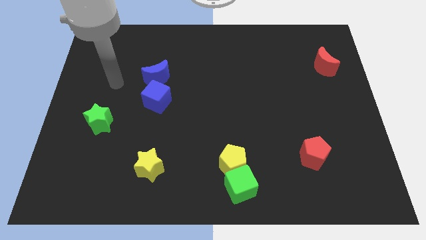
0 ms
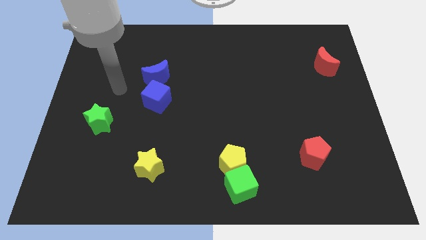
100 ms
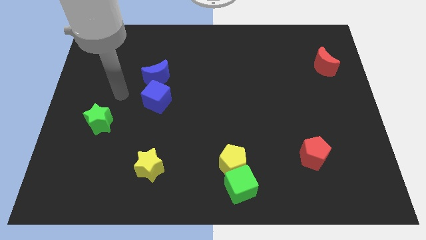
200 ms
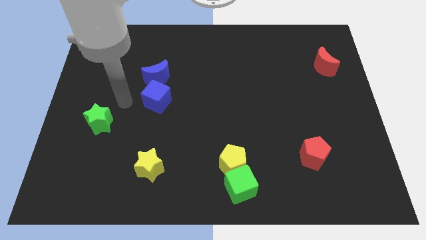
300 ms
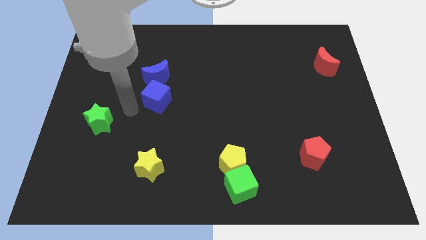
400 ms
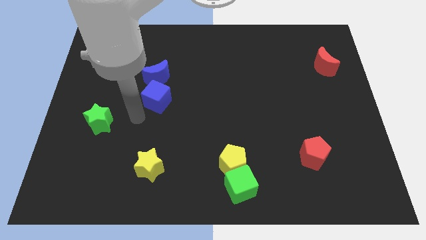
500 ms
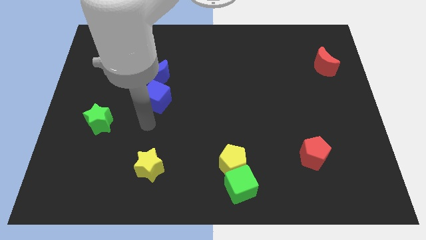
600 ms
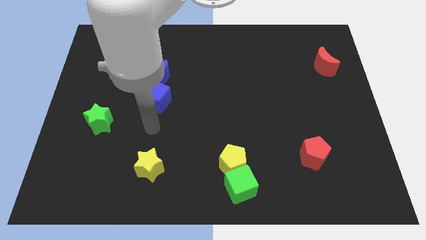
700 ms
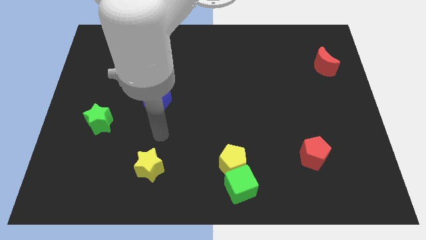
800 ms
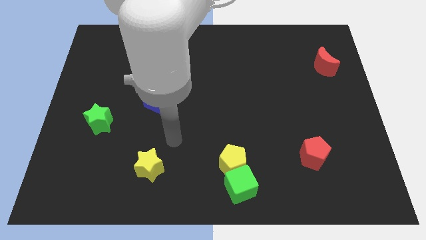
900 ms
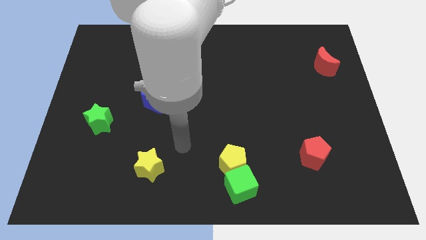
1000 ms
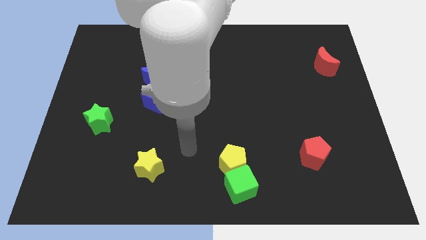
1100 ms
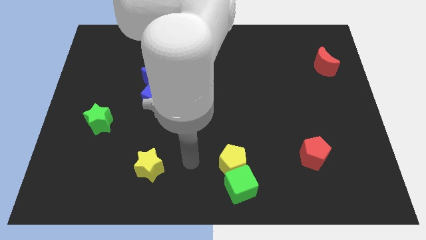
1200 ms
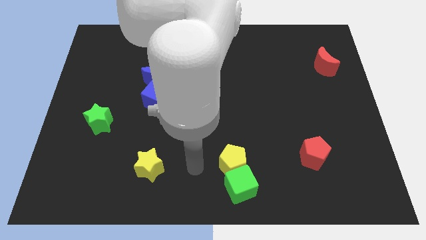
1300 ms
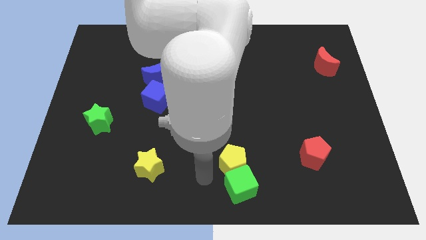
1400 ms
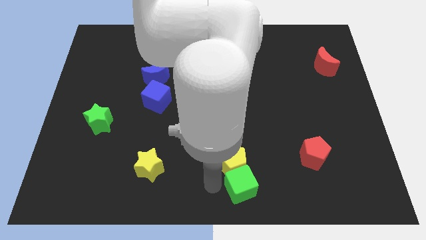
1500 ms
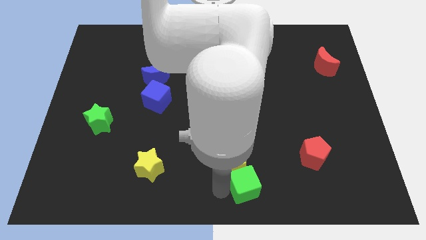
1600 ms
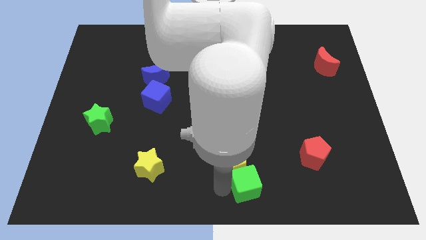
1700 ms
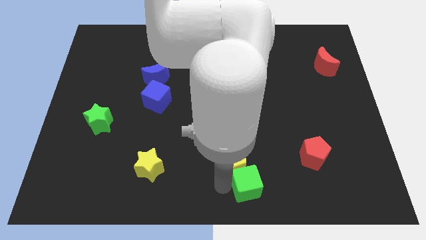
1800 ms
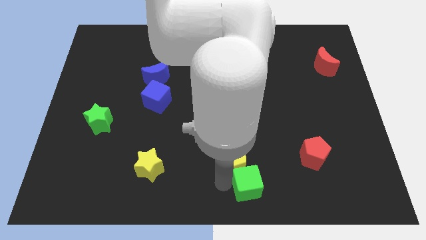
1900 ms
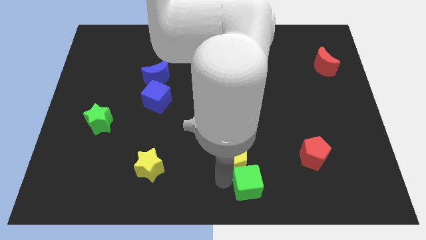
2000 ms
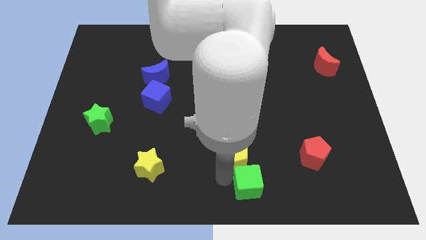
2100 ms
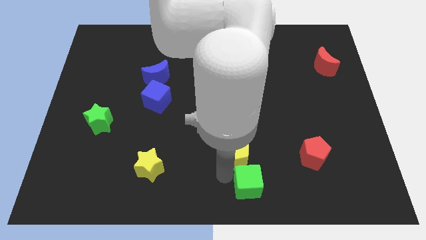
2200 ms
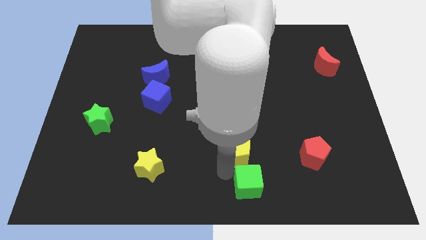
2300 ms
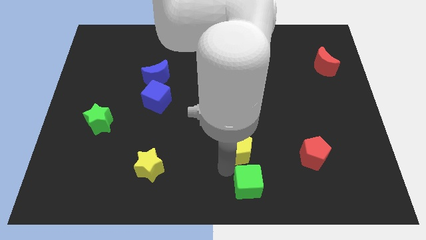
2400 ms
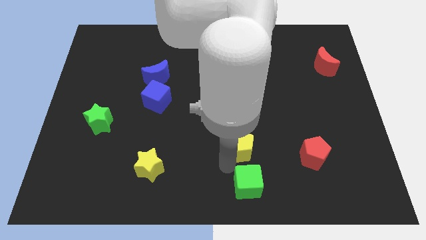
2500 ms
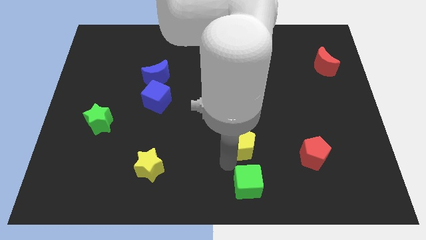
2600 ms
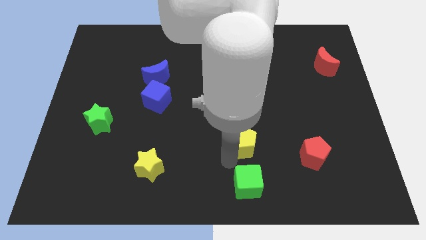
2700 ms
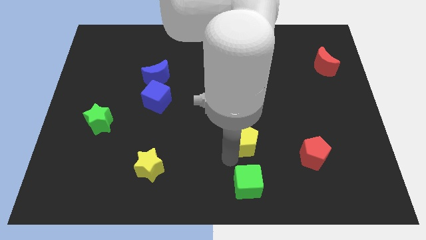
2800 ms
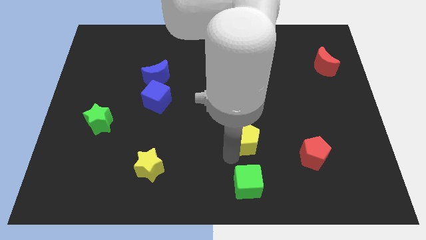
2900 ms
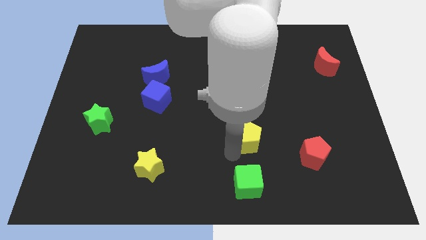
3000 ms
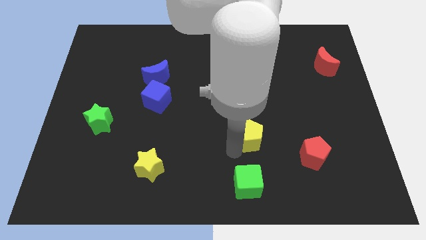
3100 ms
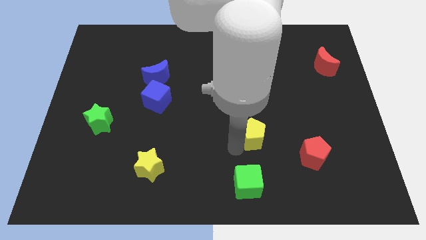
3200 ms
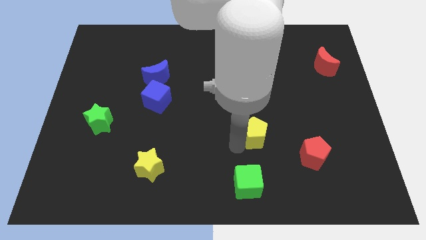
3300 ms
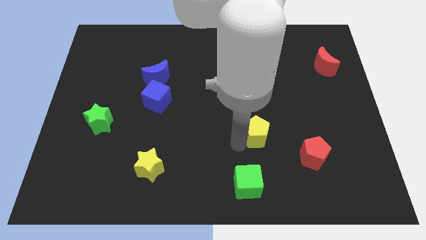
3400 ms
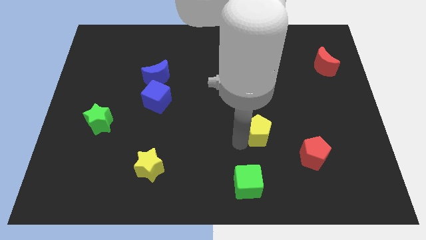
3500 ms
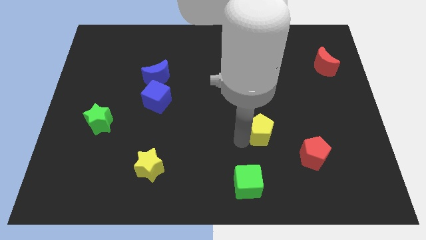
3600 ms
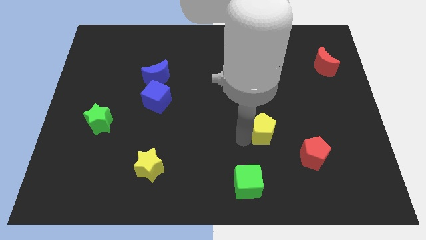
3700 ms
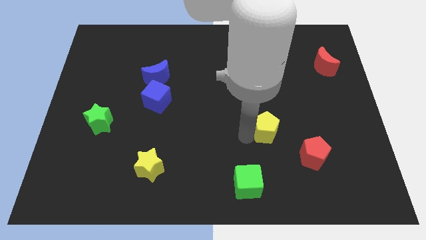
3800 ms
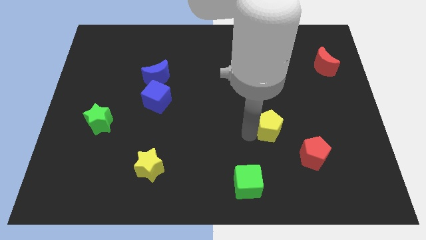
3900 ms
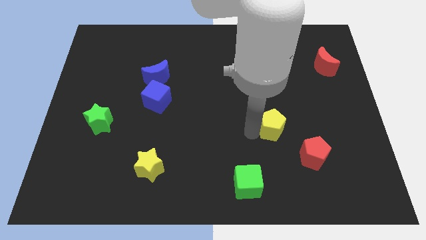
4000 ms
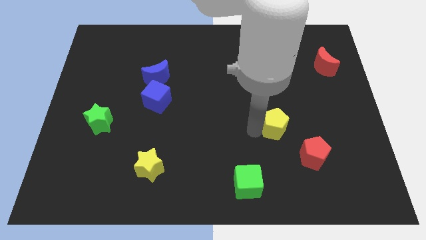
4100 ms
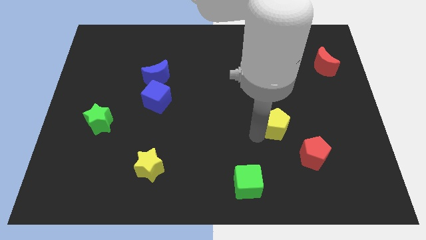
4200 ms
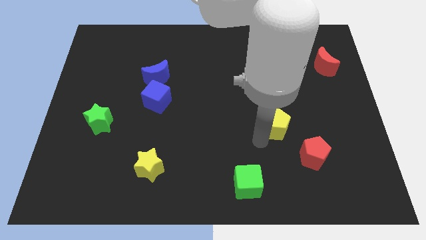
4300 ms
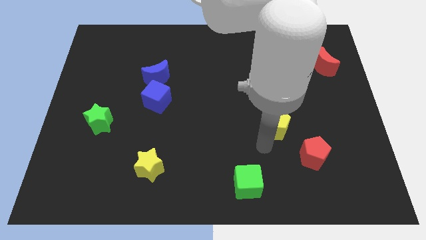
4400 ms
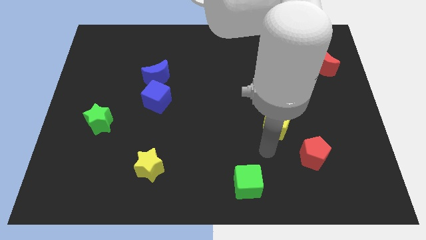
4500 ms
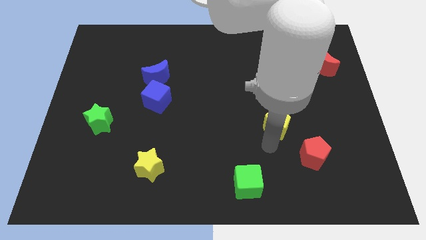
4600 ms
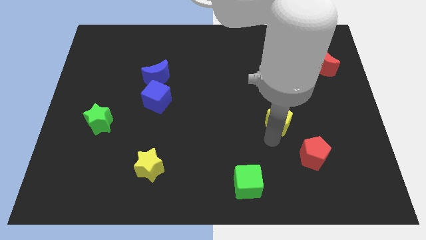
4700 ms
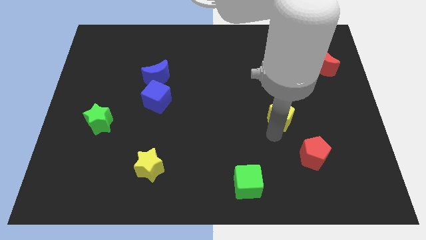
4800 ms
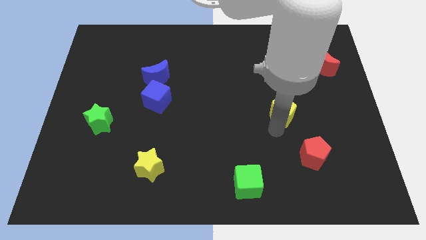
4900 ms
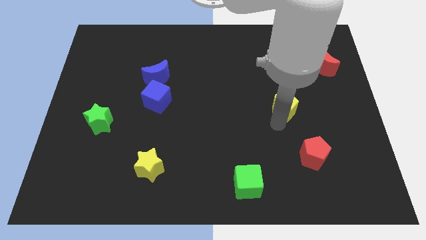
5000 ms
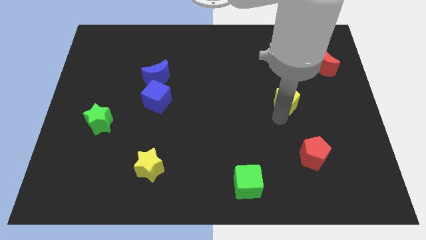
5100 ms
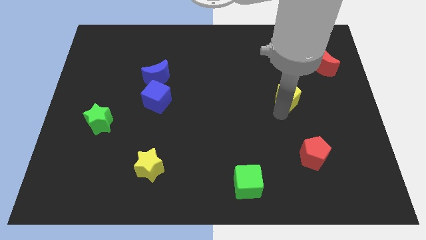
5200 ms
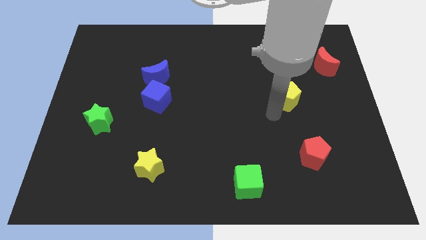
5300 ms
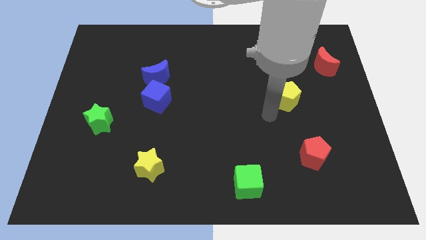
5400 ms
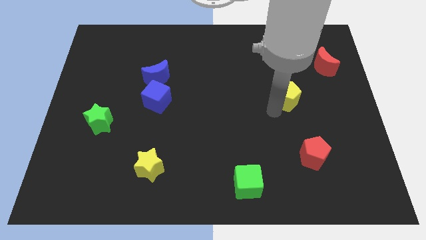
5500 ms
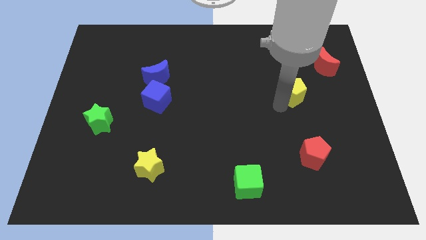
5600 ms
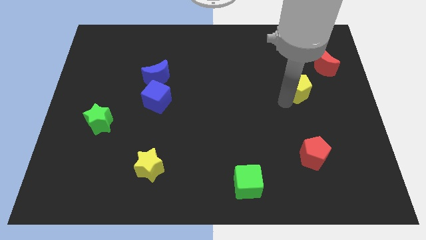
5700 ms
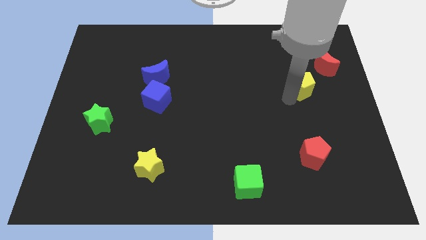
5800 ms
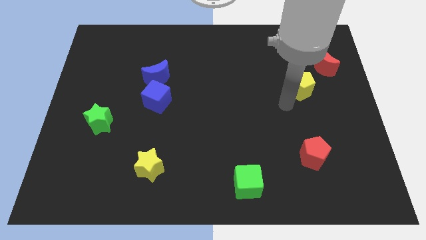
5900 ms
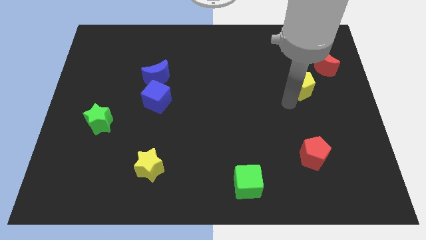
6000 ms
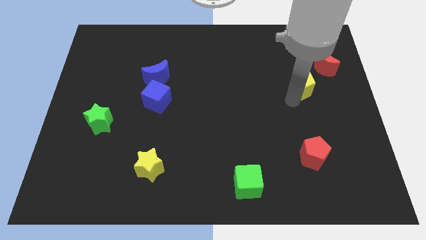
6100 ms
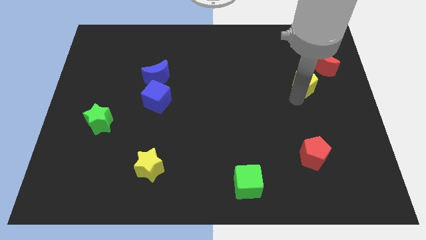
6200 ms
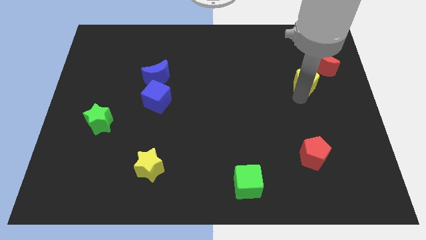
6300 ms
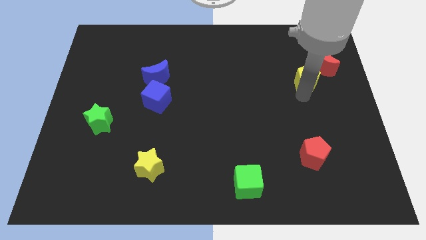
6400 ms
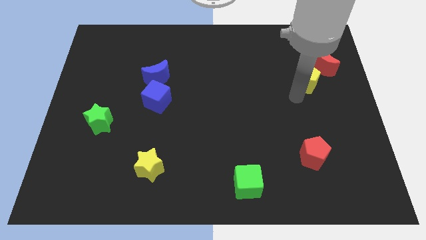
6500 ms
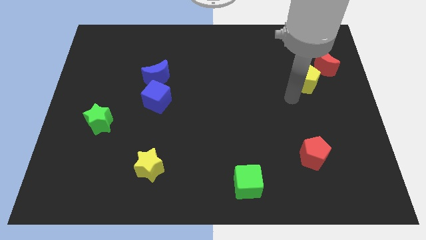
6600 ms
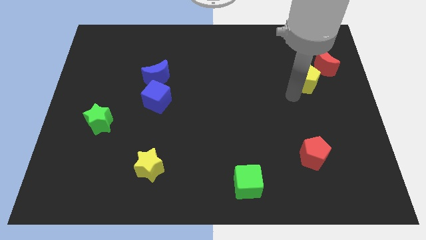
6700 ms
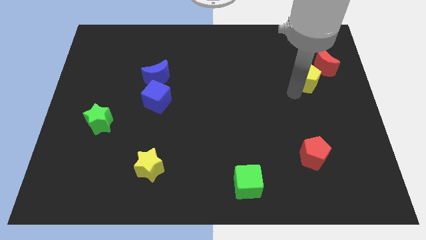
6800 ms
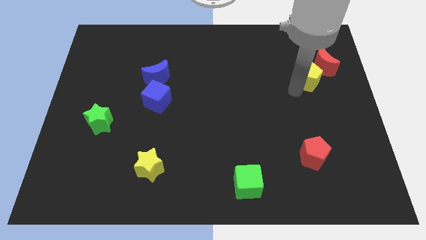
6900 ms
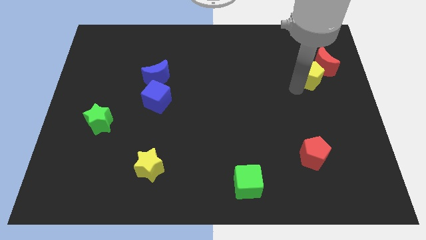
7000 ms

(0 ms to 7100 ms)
push the yellow pentagon to the red moon
